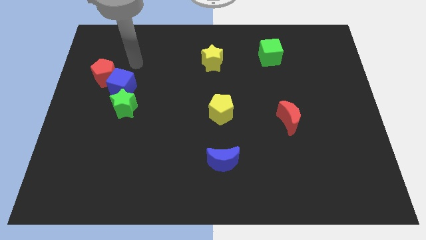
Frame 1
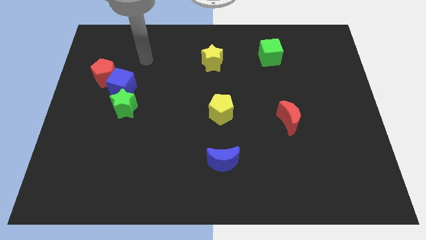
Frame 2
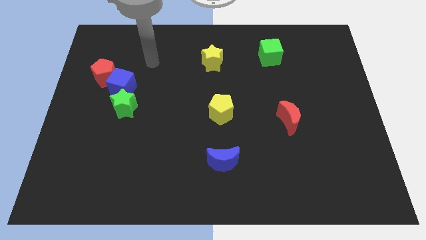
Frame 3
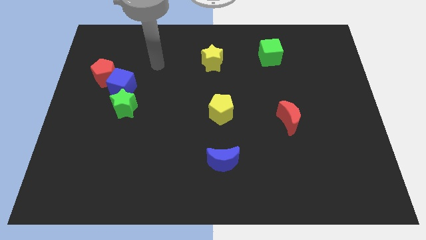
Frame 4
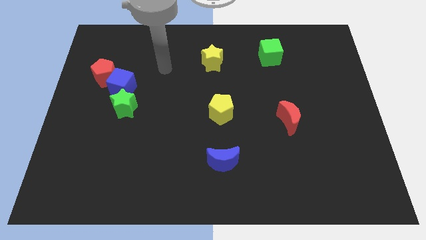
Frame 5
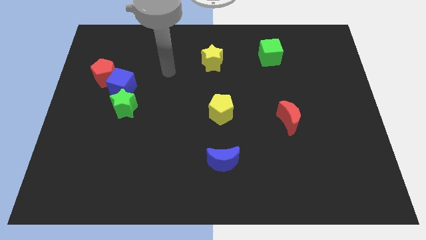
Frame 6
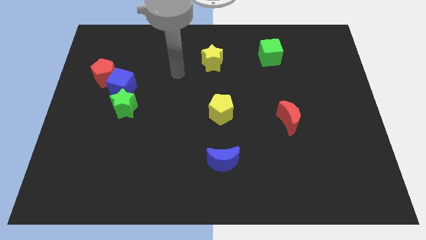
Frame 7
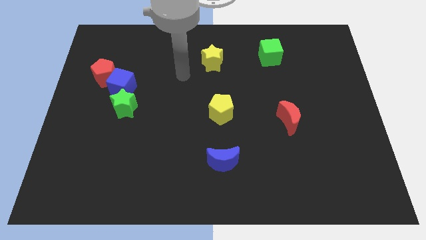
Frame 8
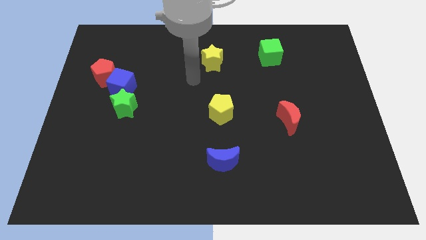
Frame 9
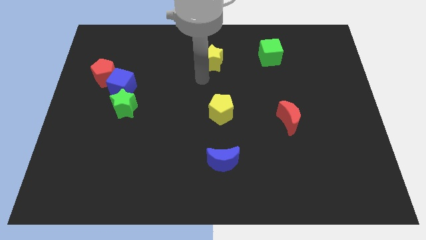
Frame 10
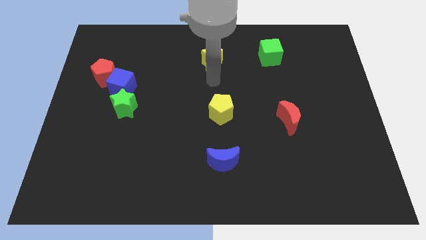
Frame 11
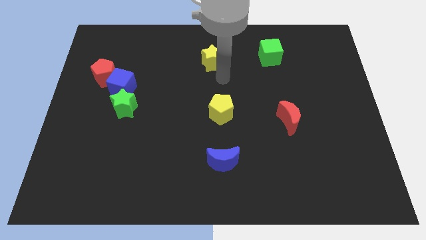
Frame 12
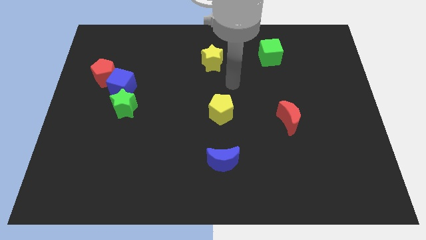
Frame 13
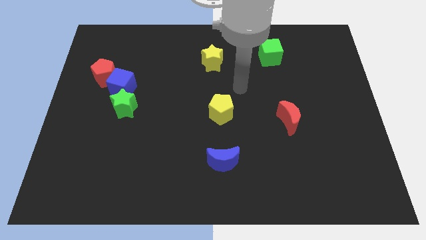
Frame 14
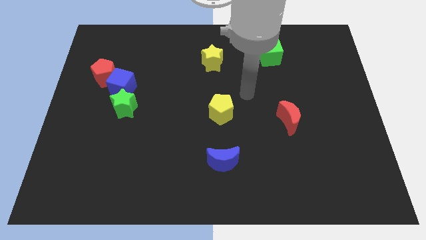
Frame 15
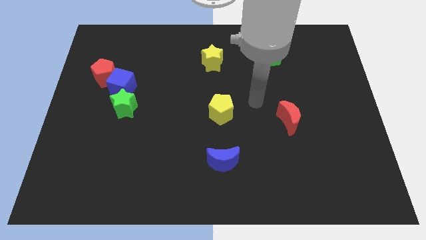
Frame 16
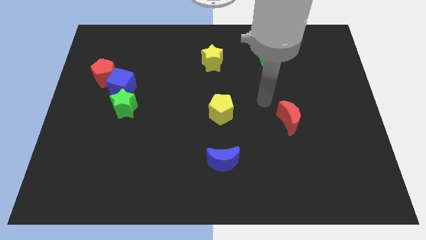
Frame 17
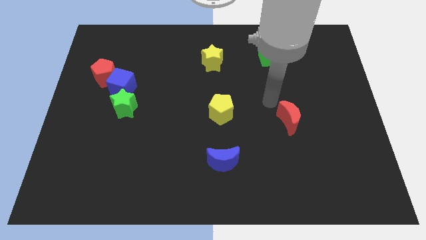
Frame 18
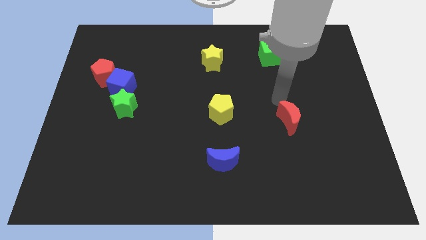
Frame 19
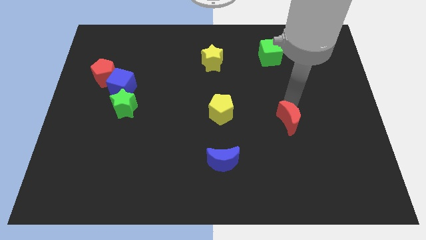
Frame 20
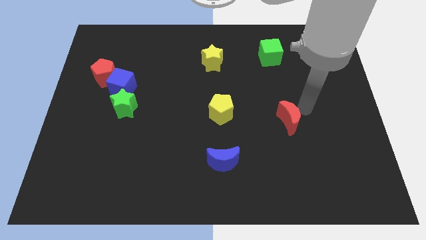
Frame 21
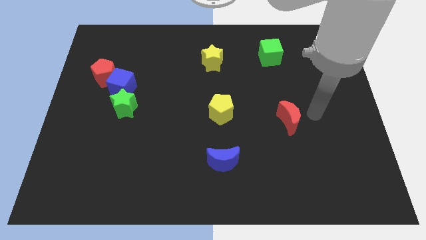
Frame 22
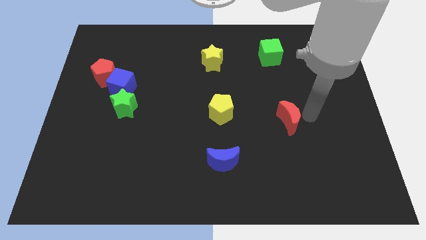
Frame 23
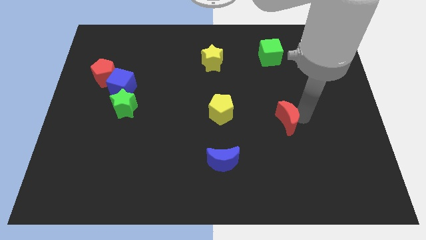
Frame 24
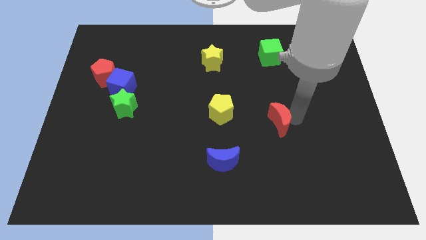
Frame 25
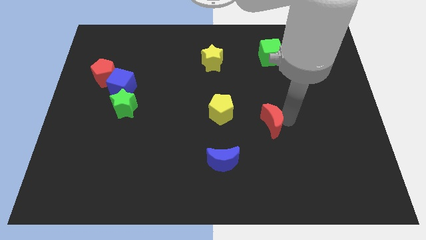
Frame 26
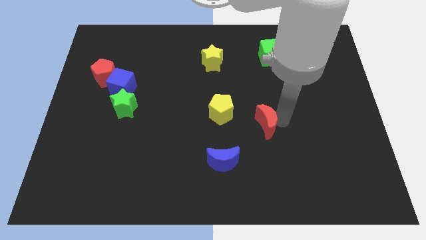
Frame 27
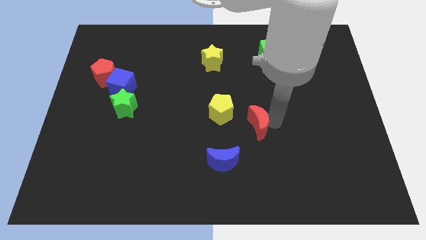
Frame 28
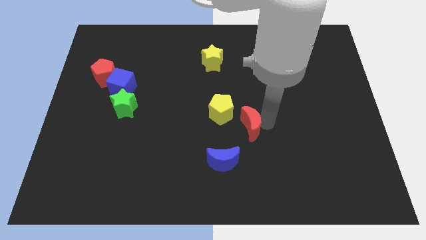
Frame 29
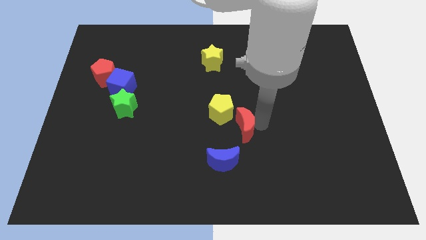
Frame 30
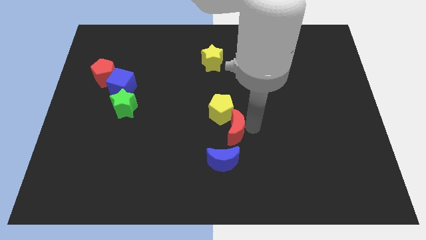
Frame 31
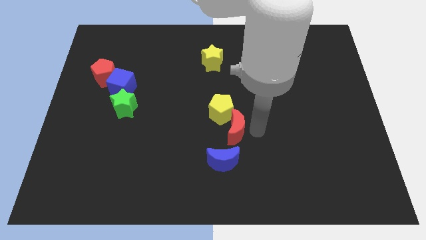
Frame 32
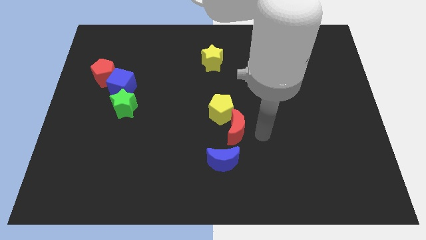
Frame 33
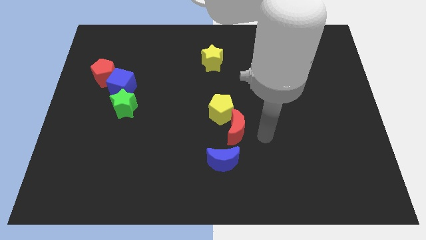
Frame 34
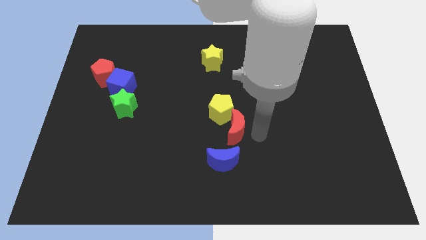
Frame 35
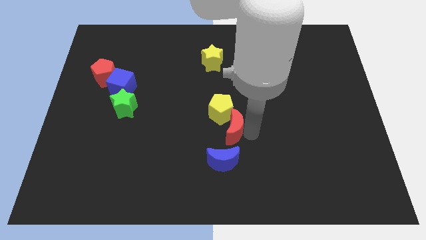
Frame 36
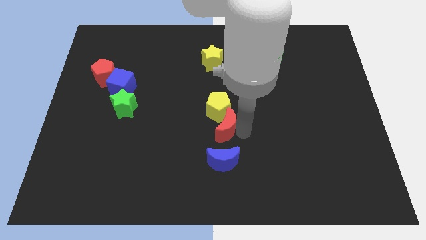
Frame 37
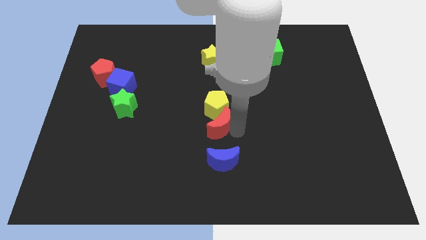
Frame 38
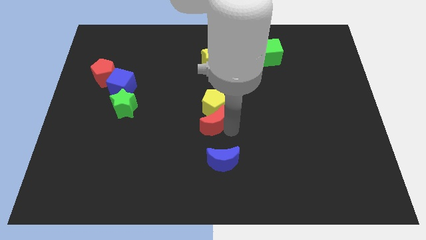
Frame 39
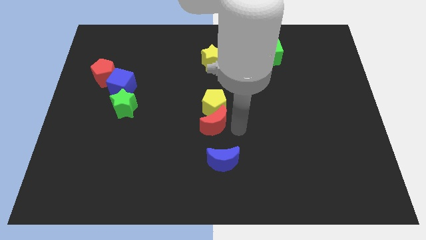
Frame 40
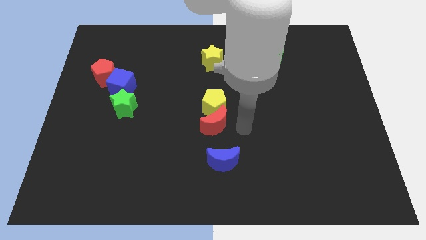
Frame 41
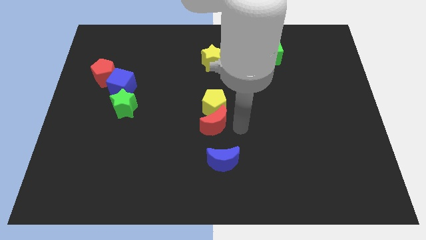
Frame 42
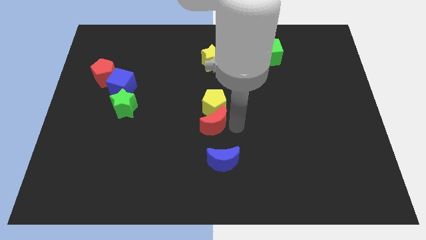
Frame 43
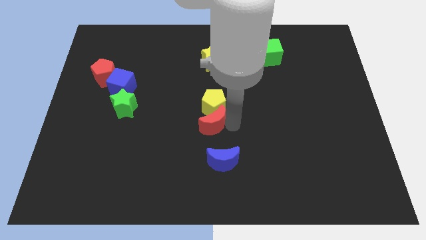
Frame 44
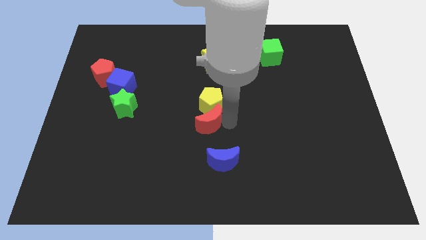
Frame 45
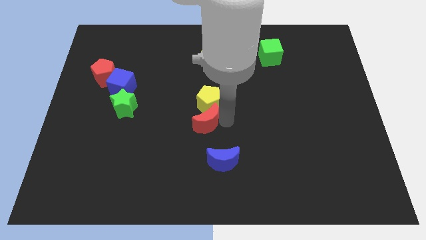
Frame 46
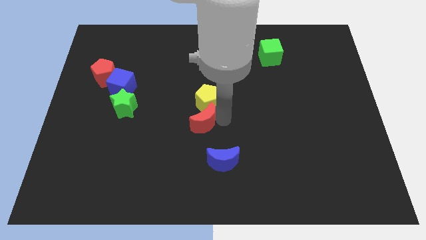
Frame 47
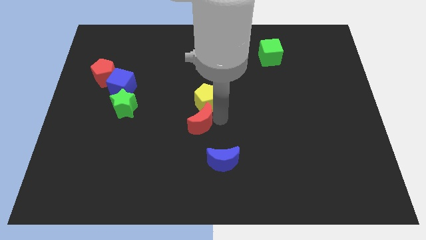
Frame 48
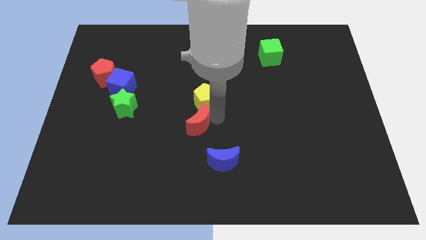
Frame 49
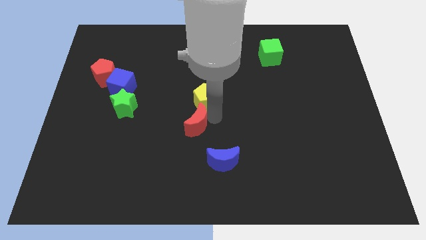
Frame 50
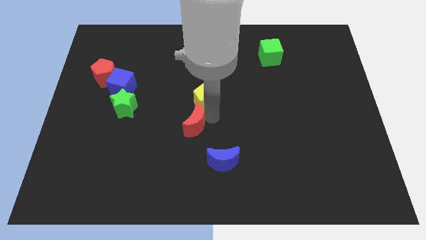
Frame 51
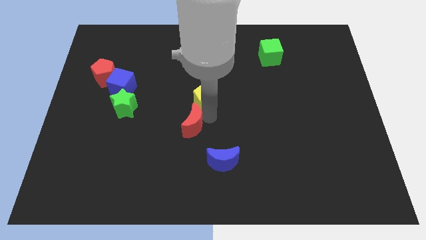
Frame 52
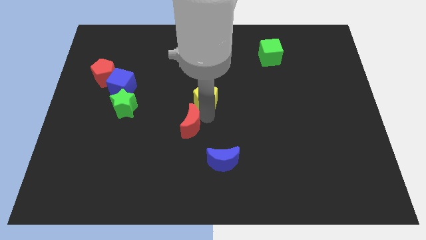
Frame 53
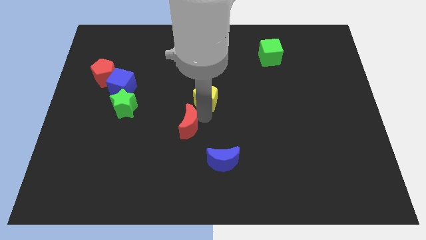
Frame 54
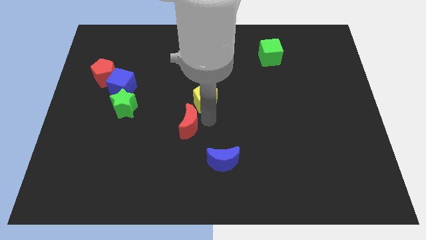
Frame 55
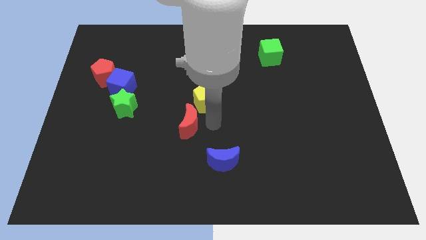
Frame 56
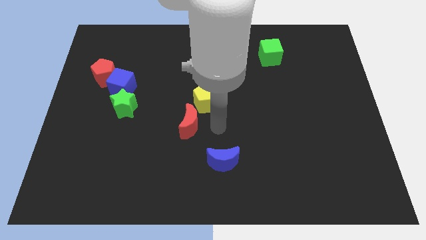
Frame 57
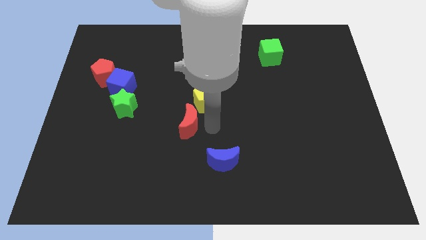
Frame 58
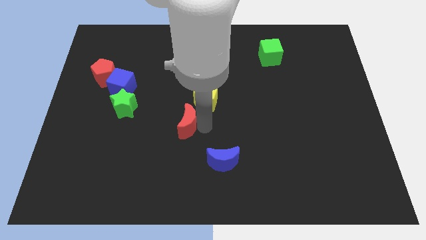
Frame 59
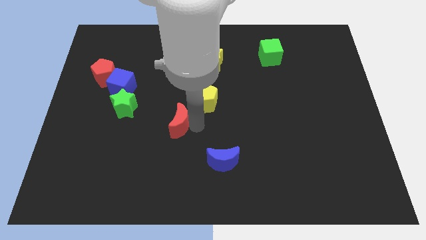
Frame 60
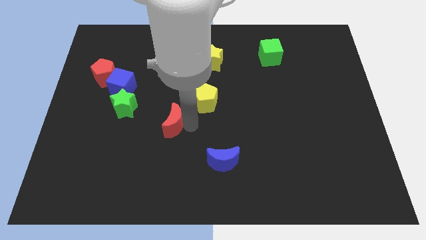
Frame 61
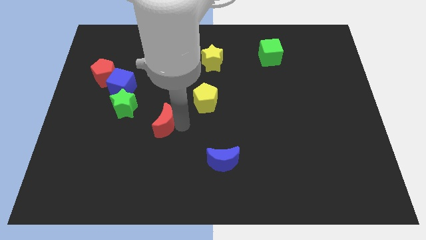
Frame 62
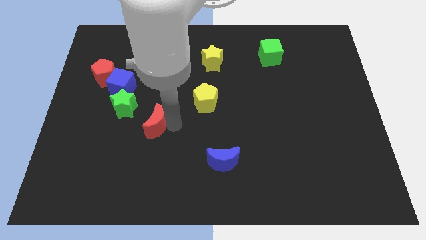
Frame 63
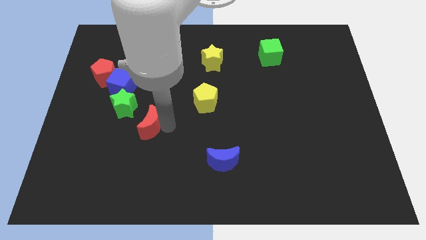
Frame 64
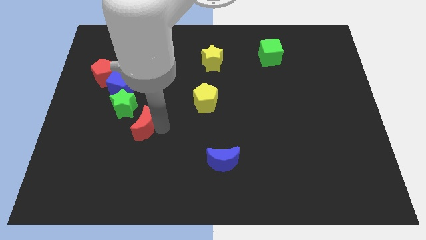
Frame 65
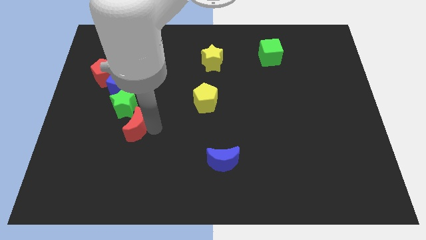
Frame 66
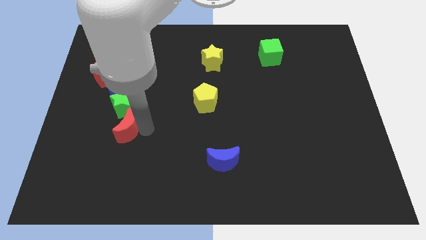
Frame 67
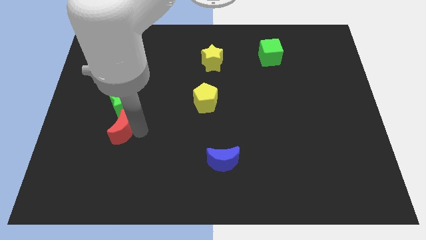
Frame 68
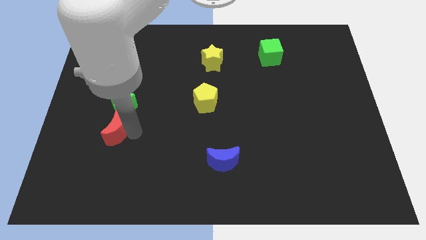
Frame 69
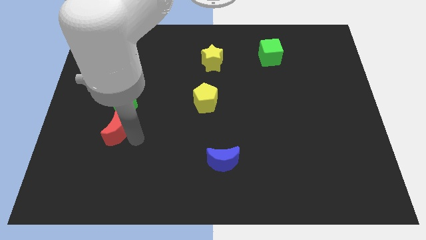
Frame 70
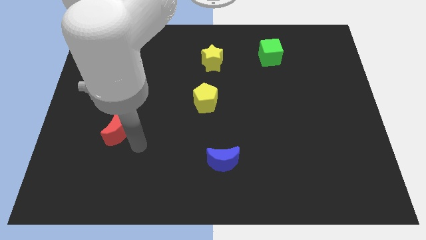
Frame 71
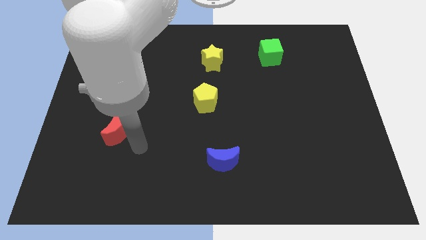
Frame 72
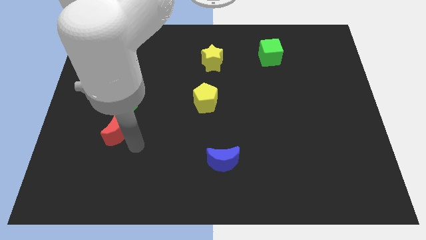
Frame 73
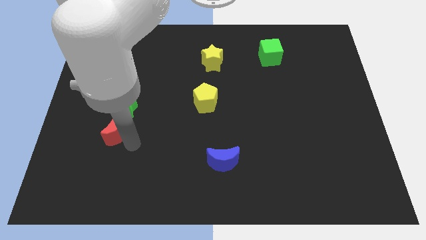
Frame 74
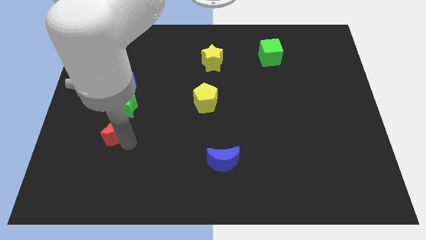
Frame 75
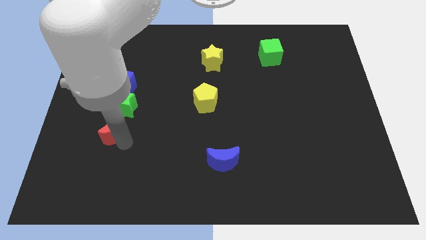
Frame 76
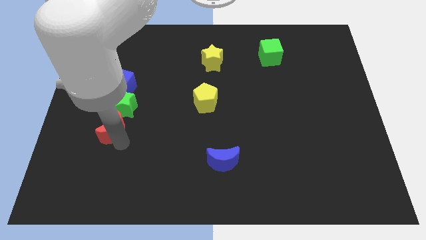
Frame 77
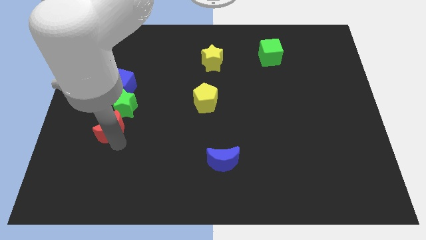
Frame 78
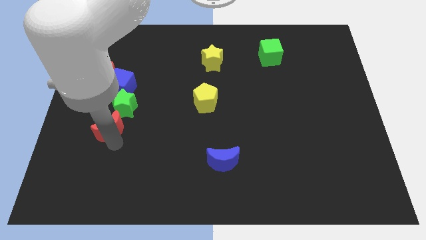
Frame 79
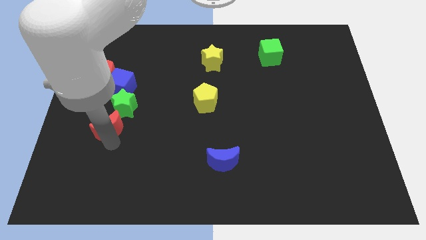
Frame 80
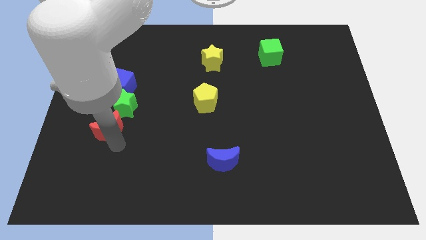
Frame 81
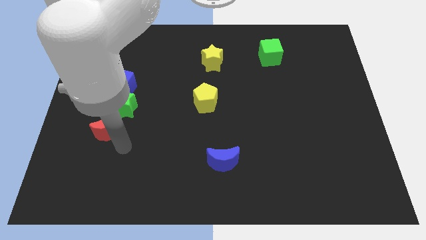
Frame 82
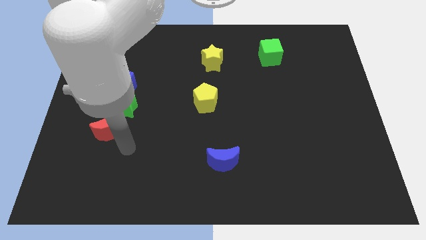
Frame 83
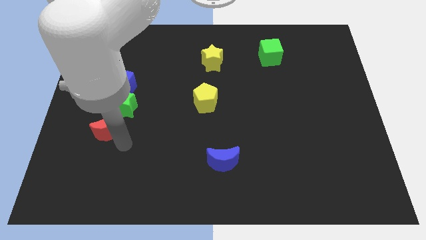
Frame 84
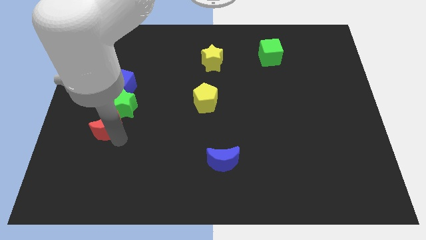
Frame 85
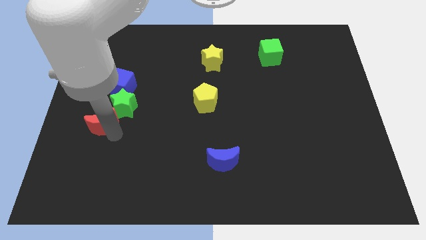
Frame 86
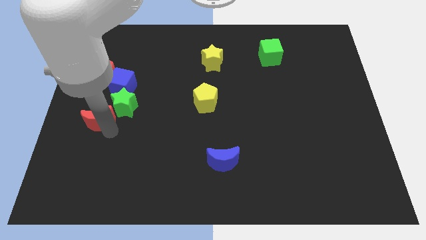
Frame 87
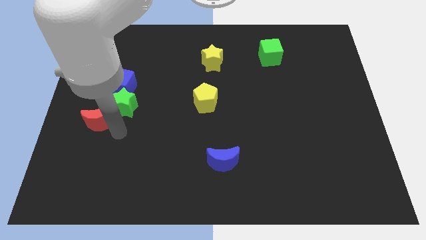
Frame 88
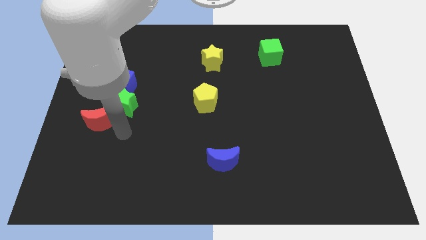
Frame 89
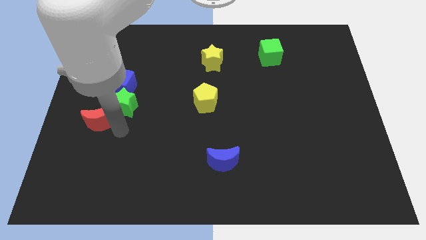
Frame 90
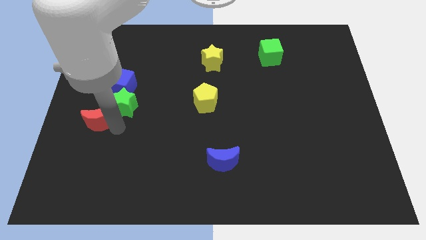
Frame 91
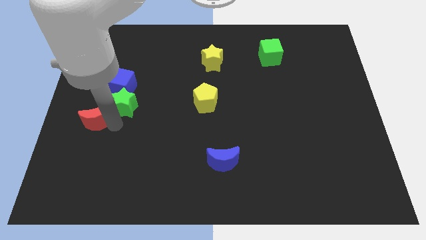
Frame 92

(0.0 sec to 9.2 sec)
put the red moon to the left side
